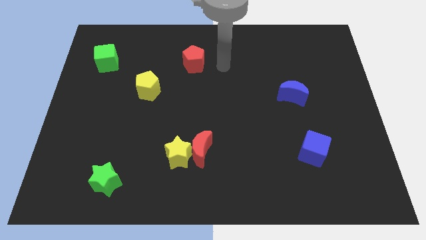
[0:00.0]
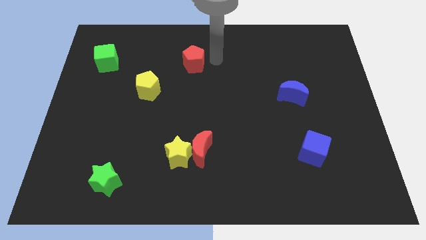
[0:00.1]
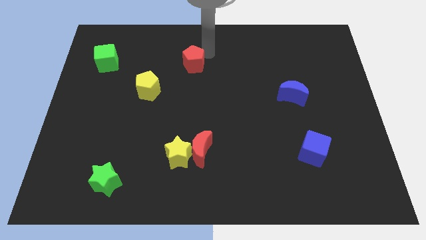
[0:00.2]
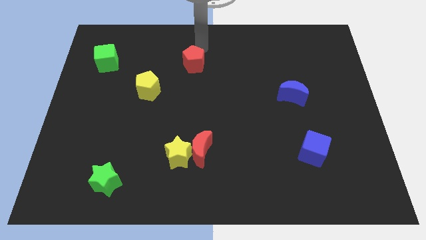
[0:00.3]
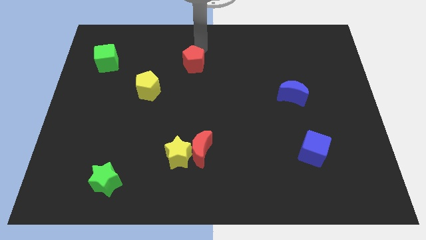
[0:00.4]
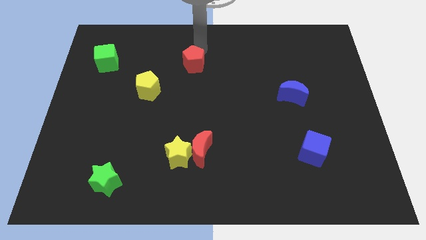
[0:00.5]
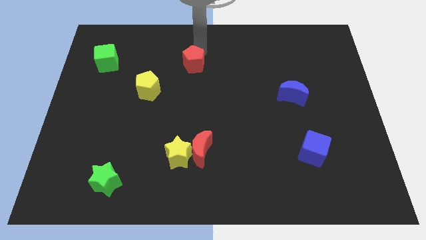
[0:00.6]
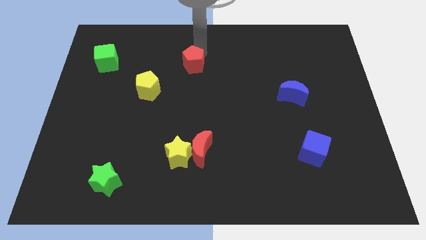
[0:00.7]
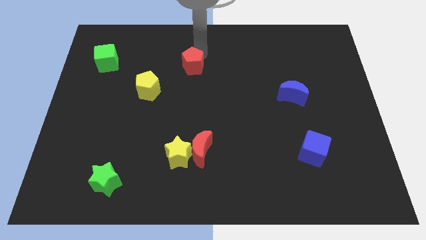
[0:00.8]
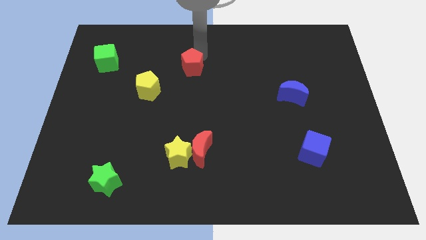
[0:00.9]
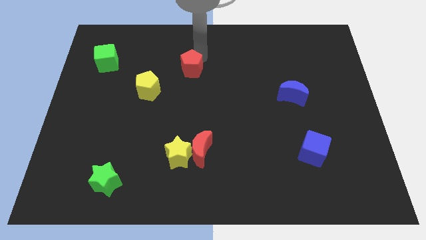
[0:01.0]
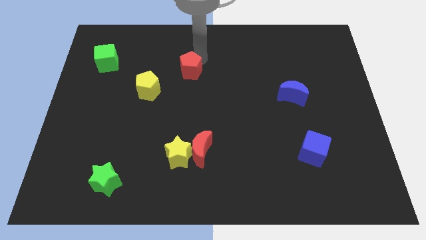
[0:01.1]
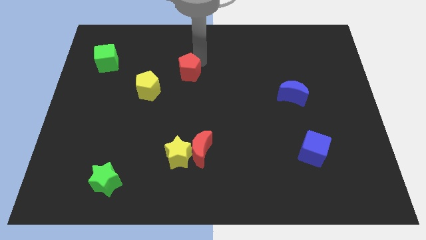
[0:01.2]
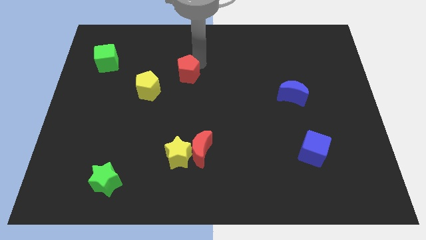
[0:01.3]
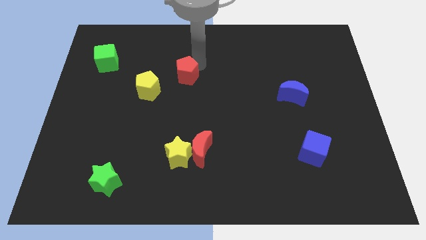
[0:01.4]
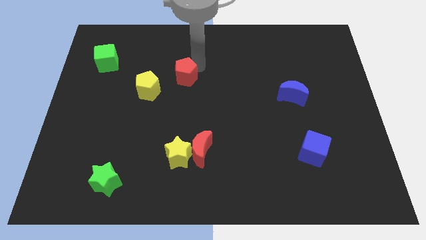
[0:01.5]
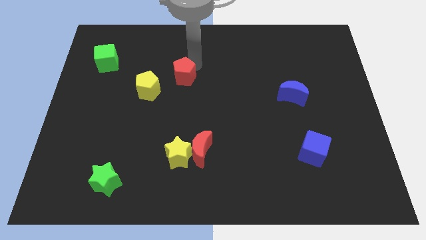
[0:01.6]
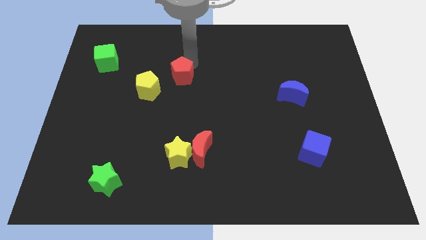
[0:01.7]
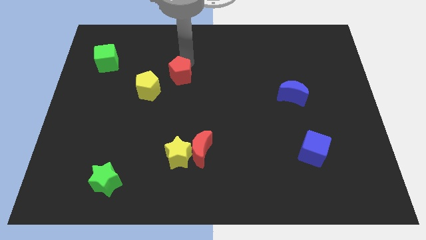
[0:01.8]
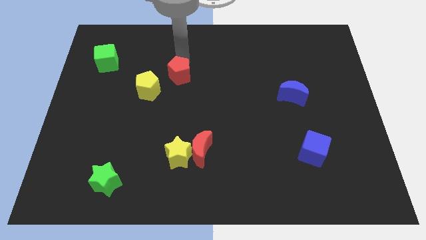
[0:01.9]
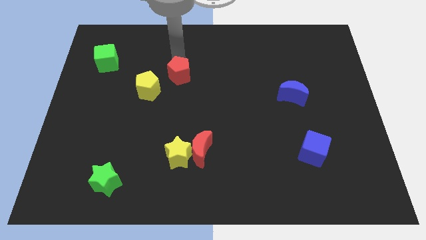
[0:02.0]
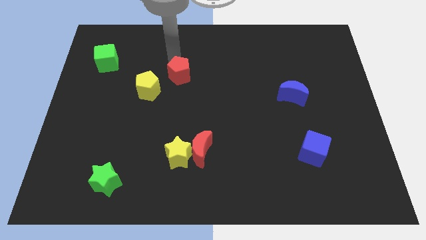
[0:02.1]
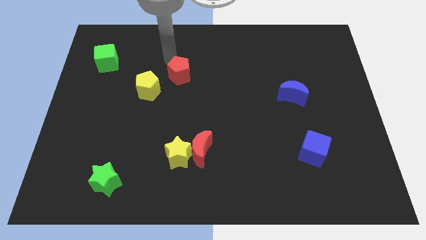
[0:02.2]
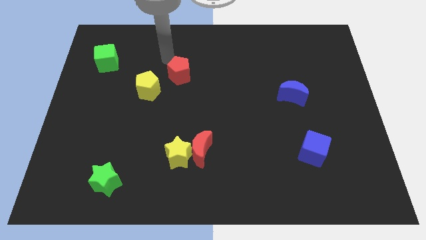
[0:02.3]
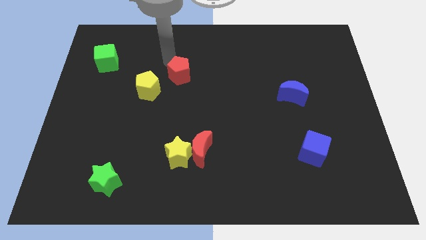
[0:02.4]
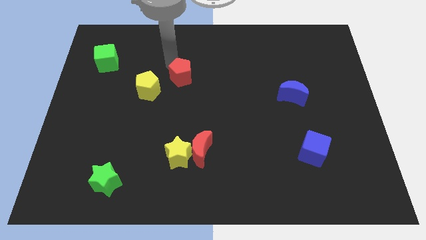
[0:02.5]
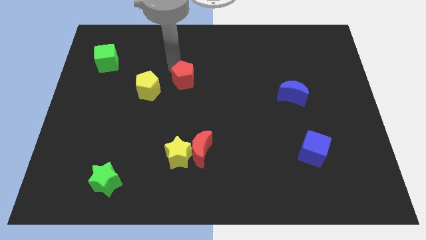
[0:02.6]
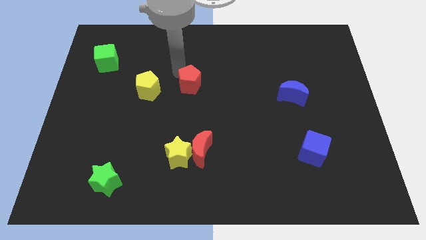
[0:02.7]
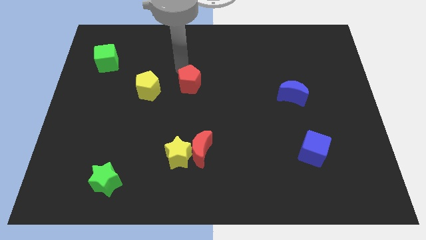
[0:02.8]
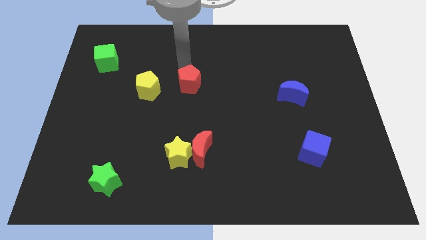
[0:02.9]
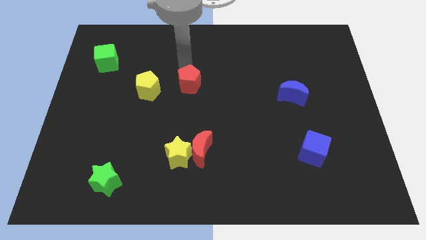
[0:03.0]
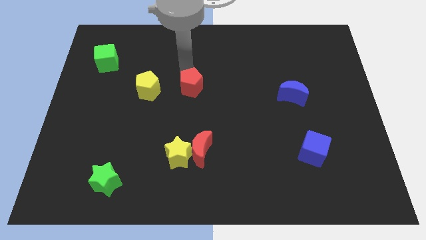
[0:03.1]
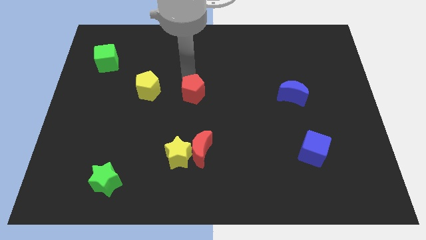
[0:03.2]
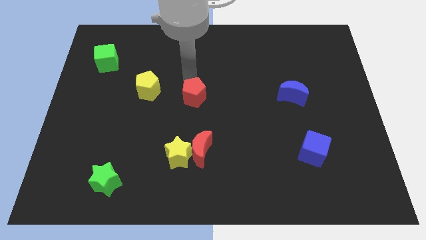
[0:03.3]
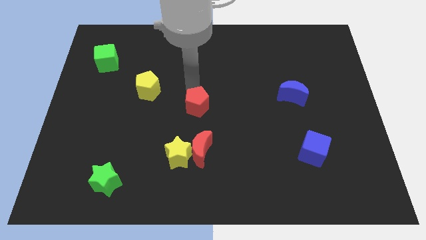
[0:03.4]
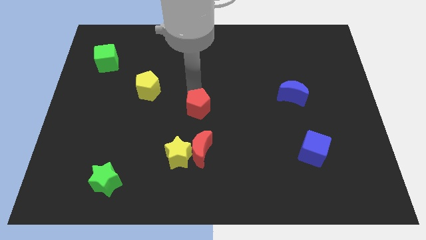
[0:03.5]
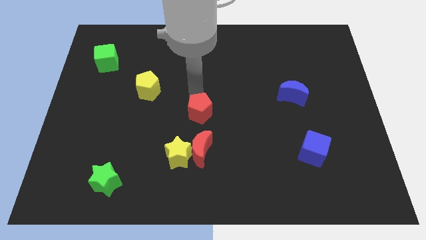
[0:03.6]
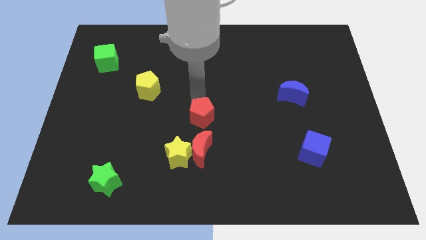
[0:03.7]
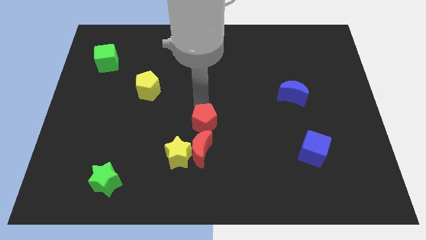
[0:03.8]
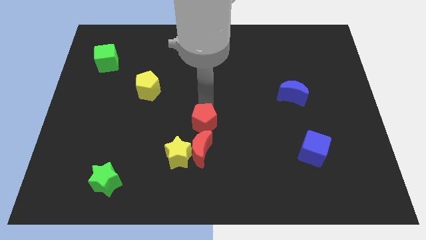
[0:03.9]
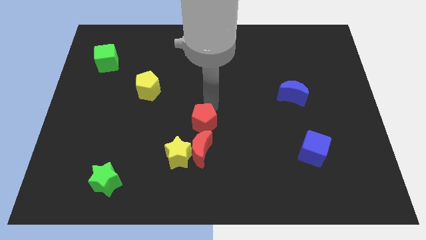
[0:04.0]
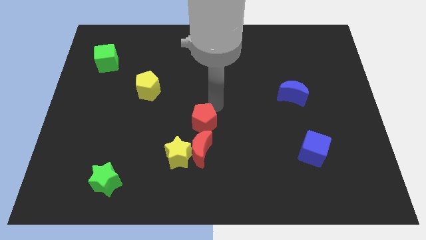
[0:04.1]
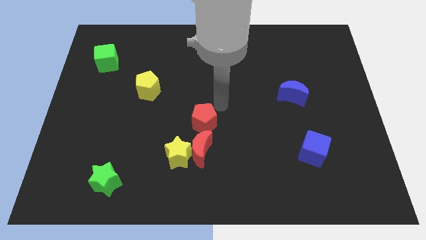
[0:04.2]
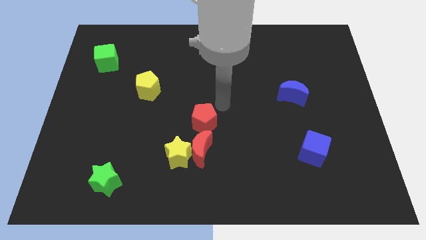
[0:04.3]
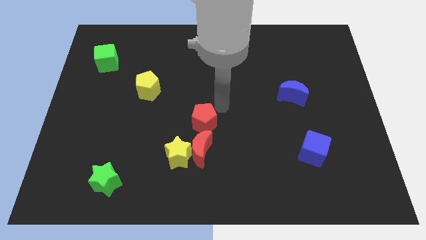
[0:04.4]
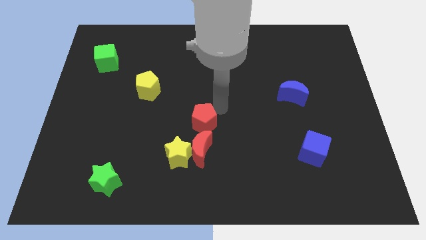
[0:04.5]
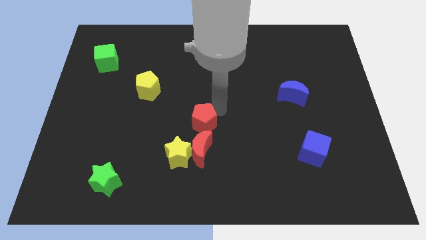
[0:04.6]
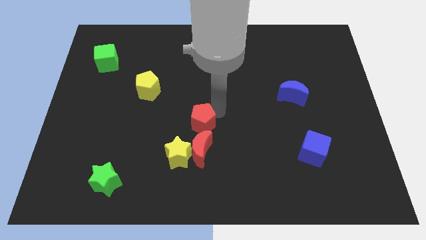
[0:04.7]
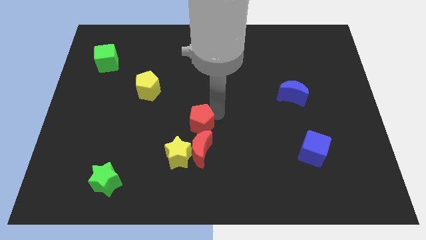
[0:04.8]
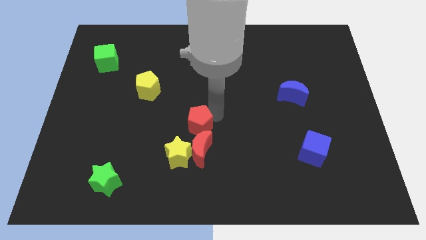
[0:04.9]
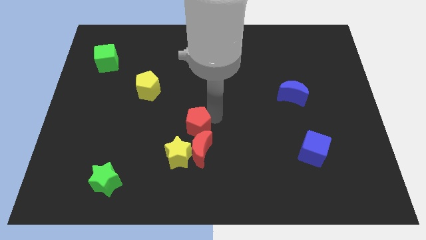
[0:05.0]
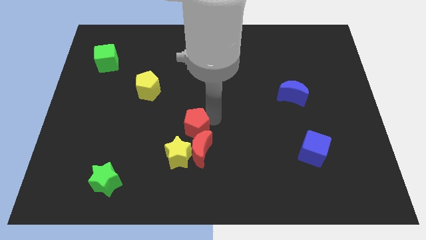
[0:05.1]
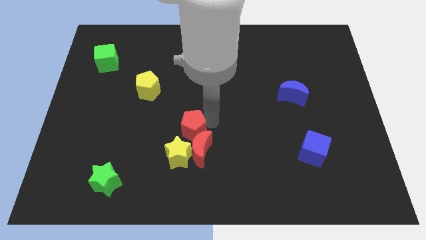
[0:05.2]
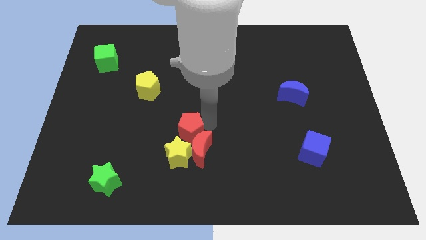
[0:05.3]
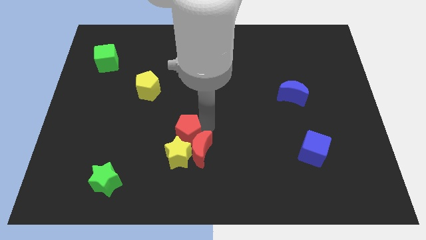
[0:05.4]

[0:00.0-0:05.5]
push the red pentagon to the yellow star
